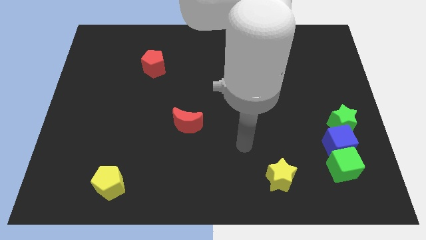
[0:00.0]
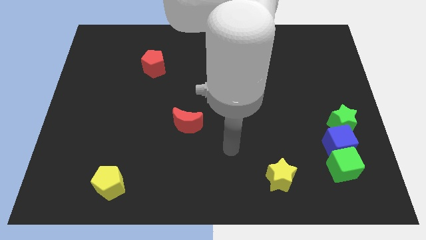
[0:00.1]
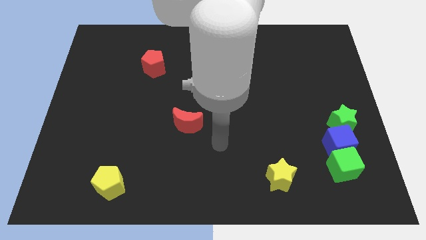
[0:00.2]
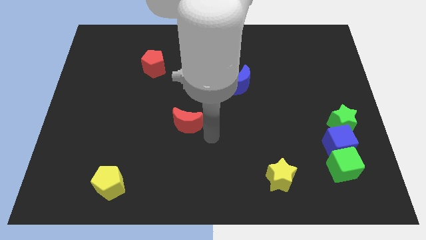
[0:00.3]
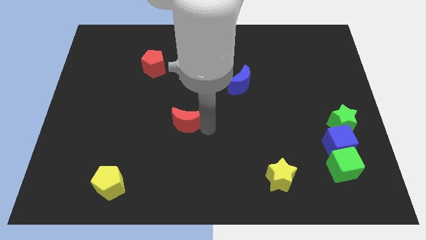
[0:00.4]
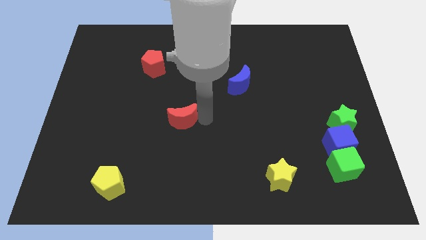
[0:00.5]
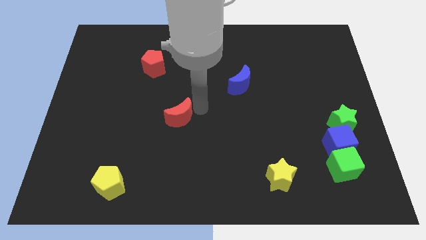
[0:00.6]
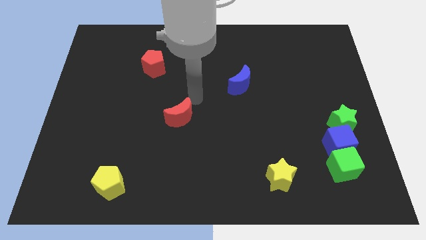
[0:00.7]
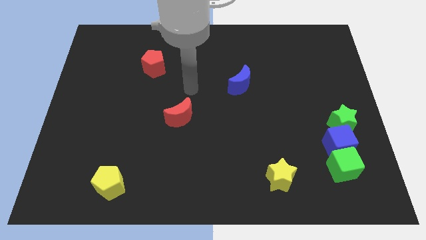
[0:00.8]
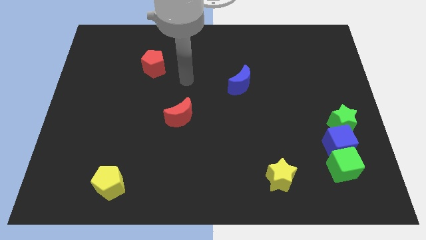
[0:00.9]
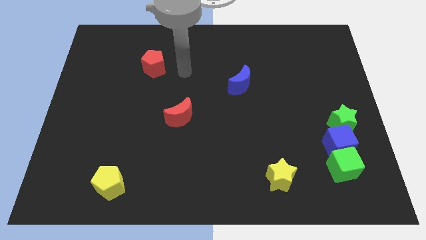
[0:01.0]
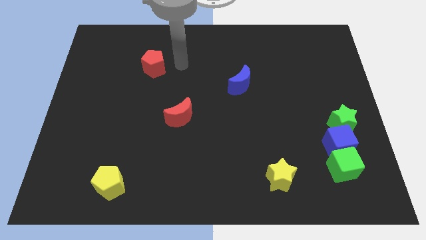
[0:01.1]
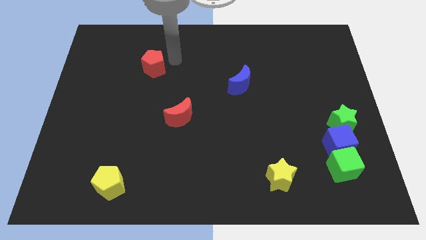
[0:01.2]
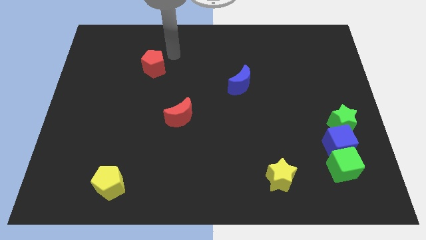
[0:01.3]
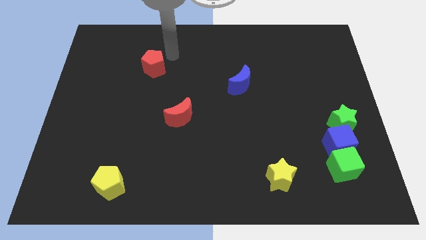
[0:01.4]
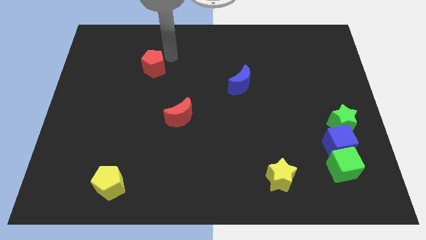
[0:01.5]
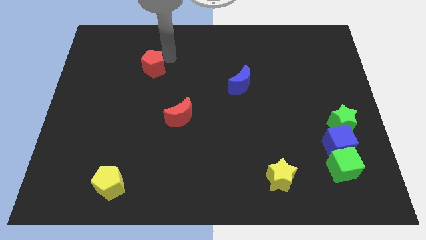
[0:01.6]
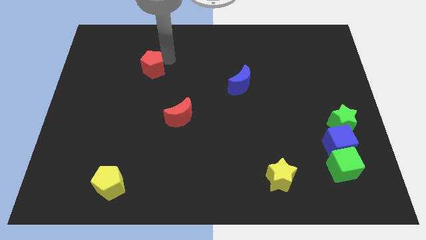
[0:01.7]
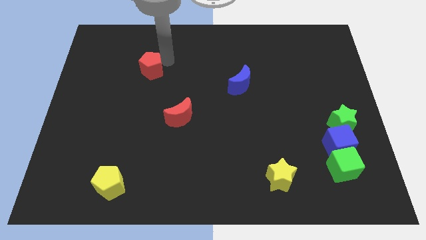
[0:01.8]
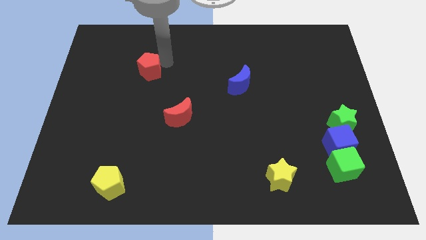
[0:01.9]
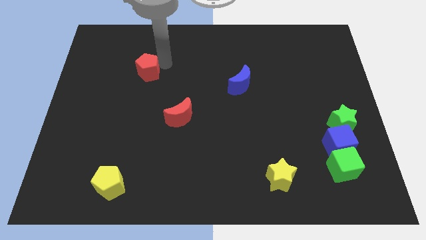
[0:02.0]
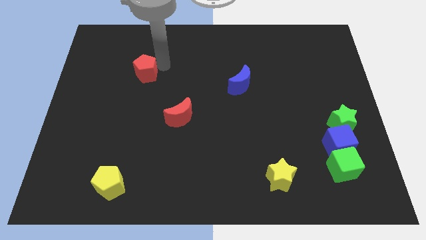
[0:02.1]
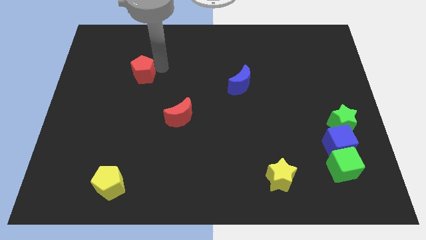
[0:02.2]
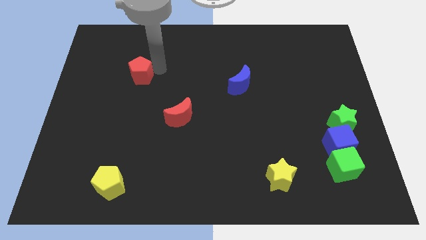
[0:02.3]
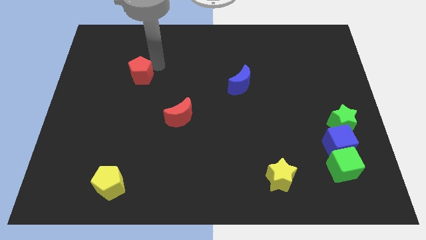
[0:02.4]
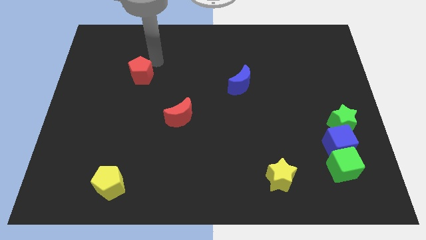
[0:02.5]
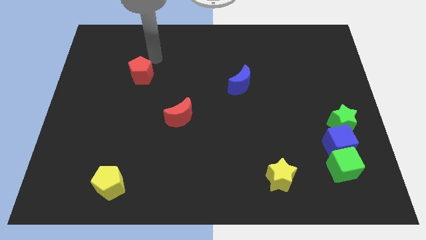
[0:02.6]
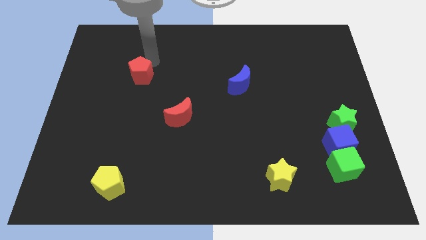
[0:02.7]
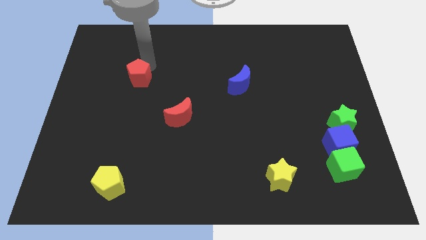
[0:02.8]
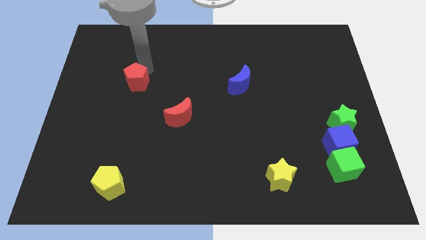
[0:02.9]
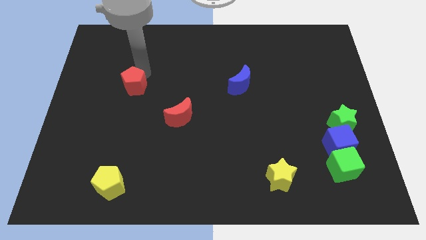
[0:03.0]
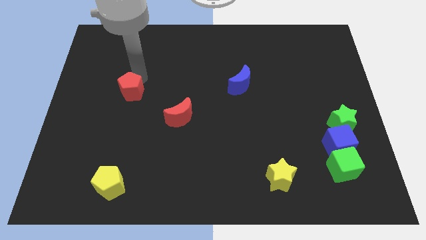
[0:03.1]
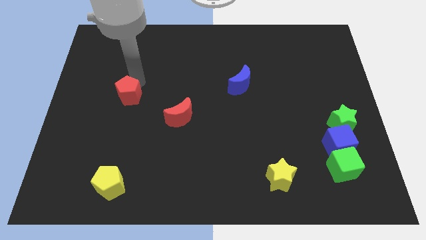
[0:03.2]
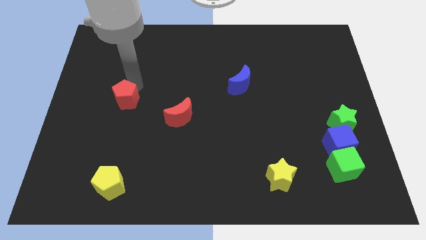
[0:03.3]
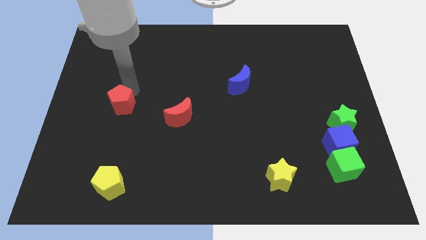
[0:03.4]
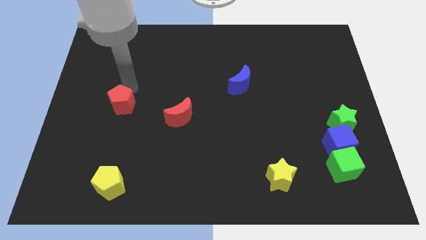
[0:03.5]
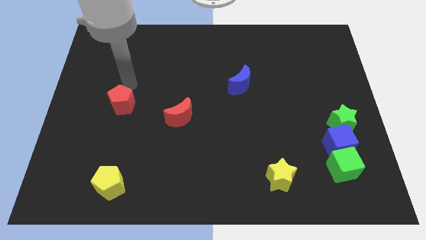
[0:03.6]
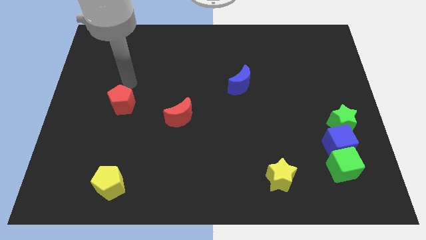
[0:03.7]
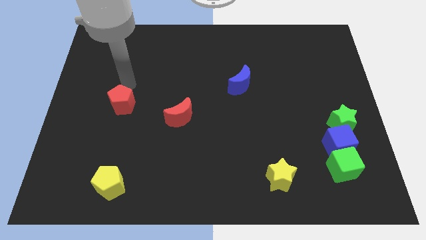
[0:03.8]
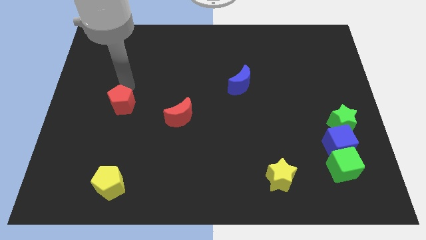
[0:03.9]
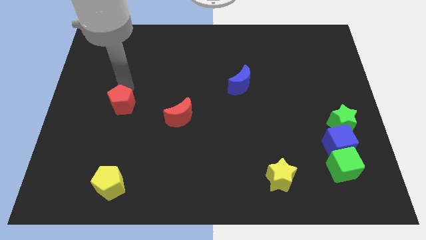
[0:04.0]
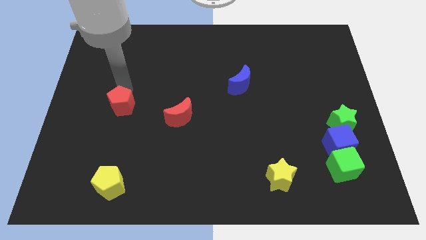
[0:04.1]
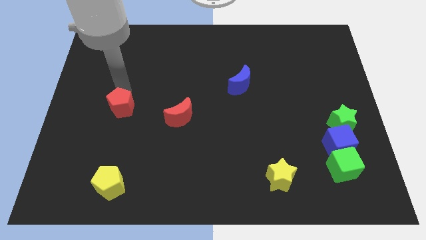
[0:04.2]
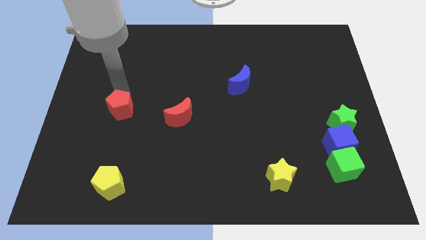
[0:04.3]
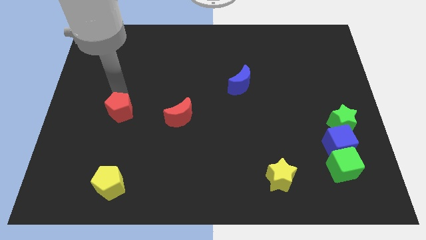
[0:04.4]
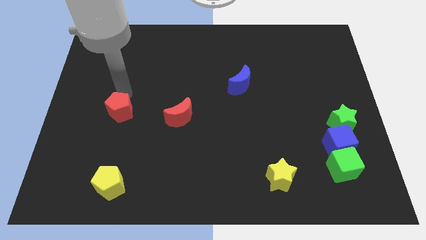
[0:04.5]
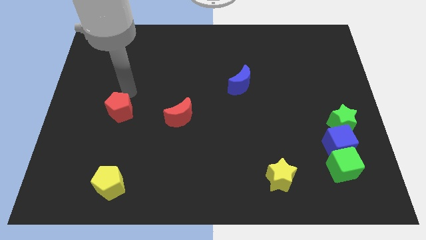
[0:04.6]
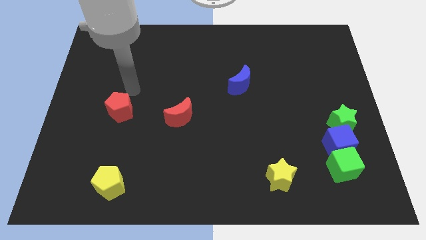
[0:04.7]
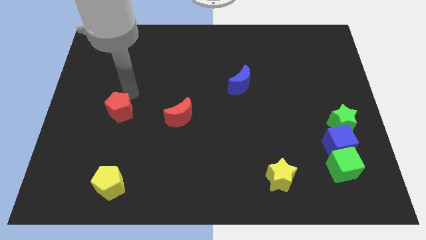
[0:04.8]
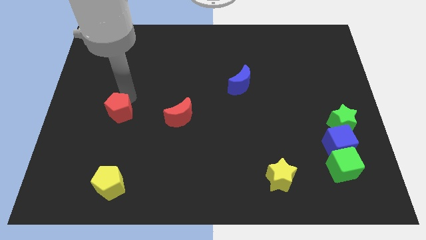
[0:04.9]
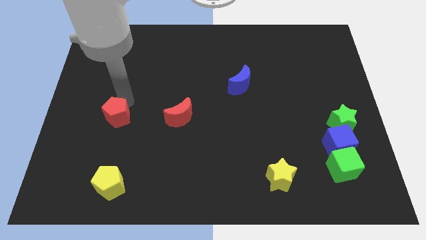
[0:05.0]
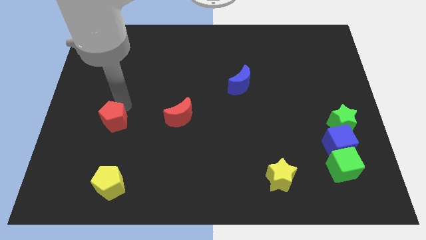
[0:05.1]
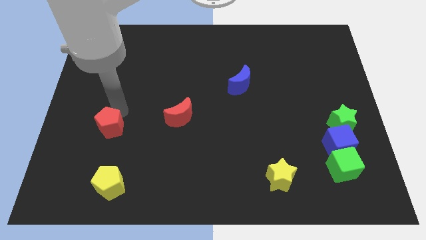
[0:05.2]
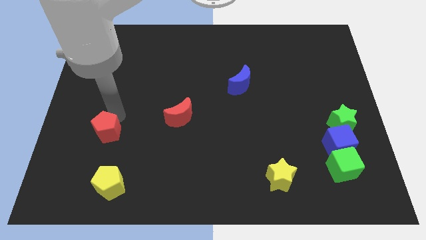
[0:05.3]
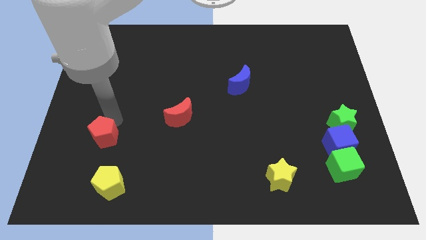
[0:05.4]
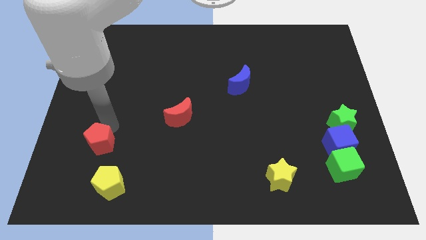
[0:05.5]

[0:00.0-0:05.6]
put the red pentagon to the top left side of the yellow pentagon

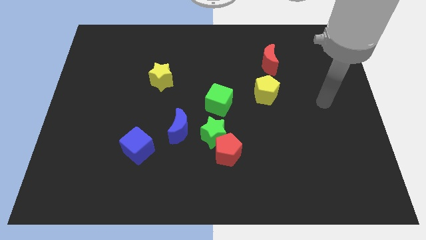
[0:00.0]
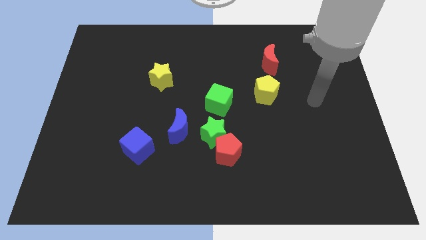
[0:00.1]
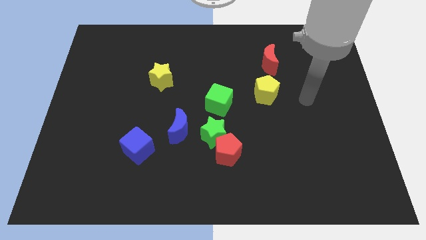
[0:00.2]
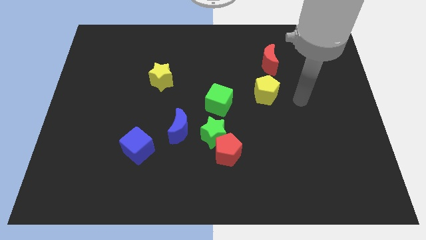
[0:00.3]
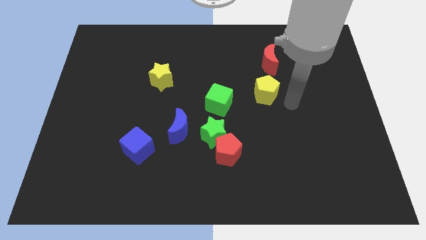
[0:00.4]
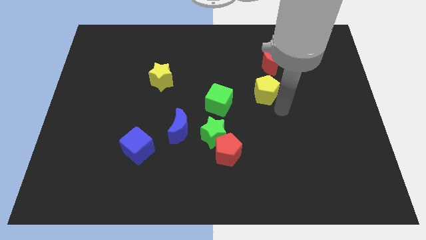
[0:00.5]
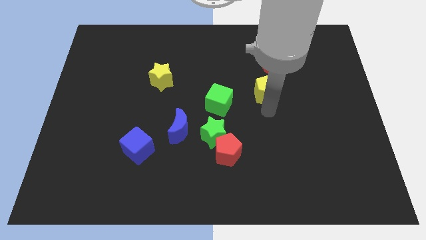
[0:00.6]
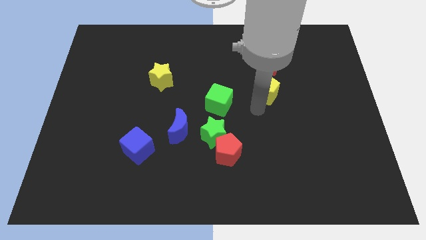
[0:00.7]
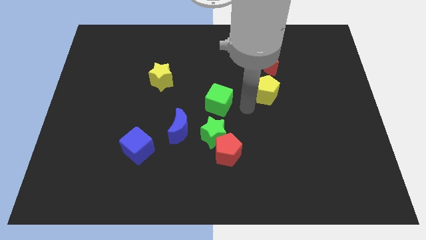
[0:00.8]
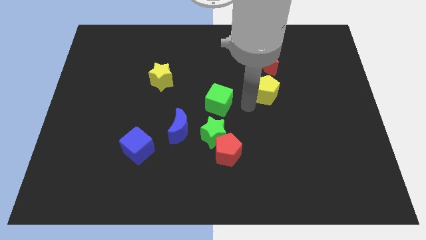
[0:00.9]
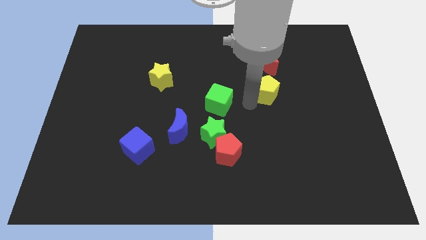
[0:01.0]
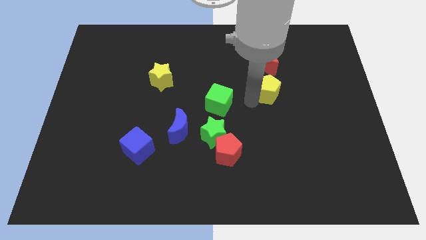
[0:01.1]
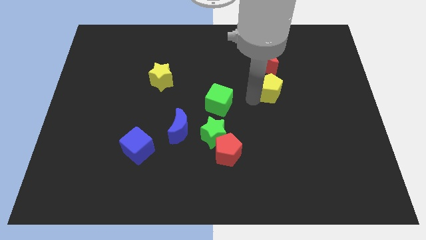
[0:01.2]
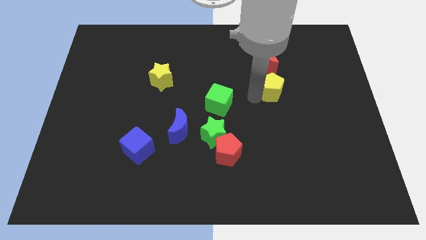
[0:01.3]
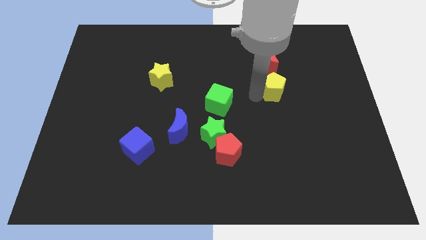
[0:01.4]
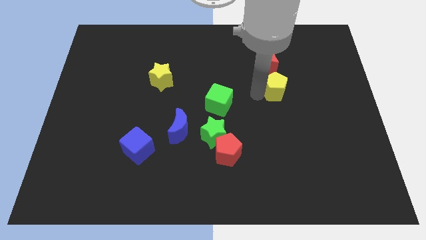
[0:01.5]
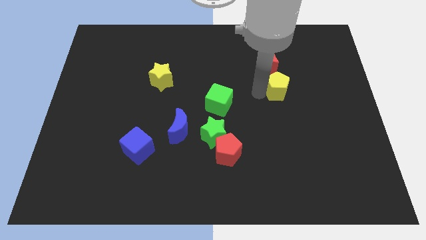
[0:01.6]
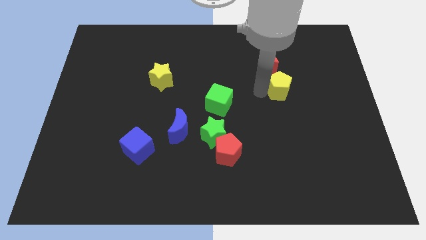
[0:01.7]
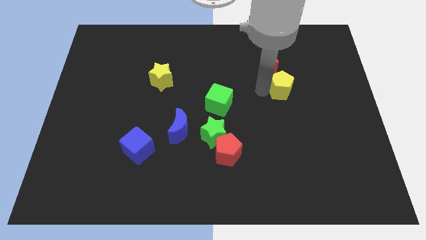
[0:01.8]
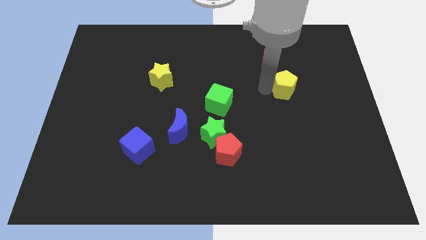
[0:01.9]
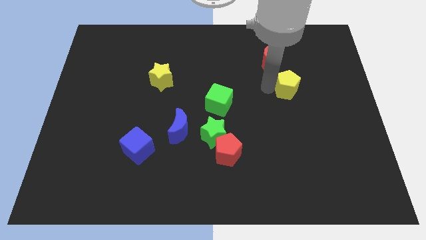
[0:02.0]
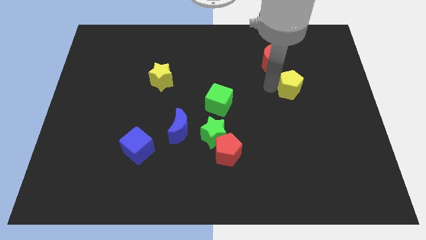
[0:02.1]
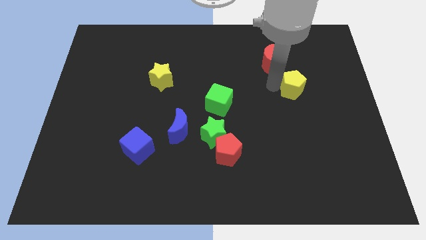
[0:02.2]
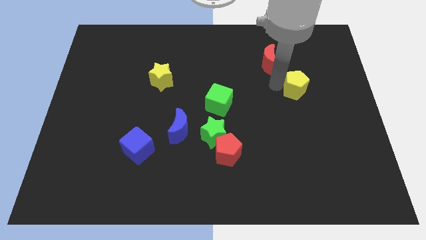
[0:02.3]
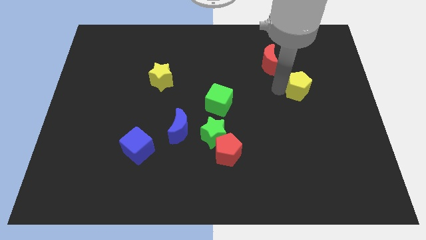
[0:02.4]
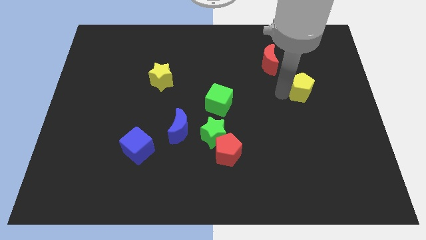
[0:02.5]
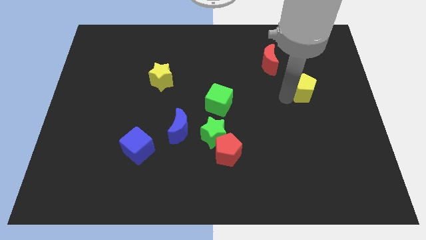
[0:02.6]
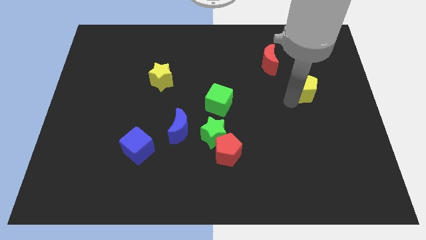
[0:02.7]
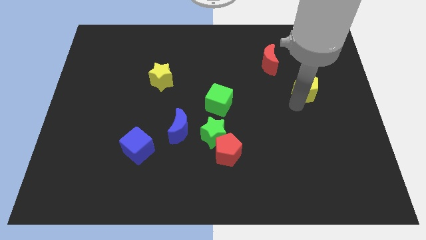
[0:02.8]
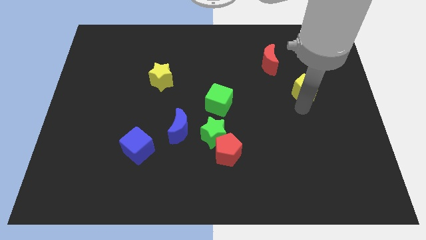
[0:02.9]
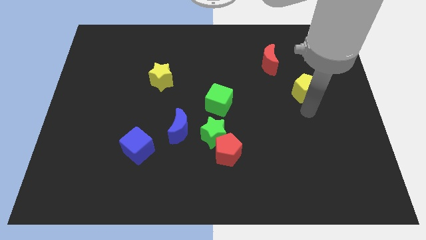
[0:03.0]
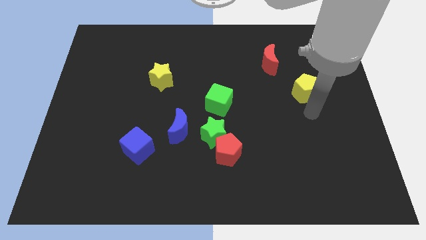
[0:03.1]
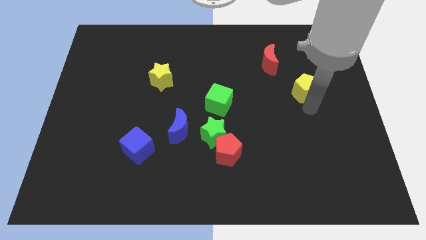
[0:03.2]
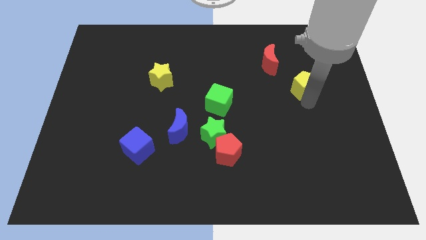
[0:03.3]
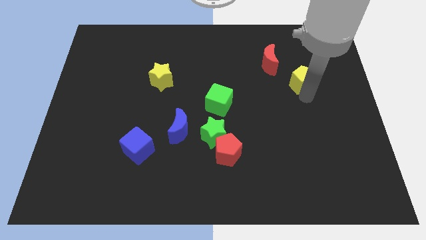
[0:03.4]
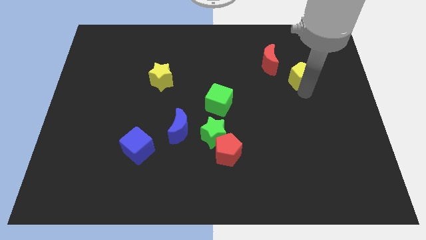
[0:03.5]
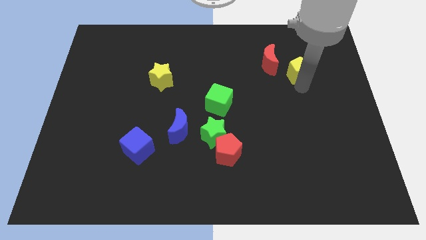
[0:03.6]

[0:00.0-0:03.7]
slide the yellow pentagon to the right of the red moon
